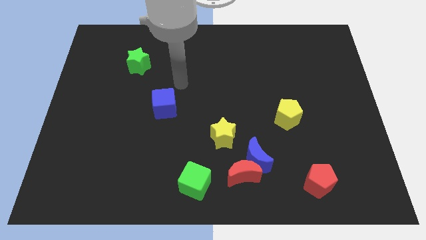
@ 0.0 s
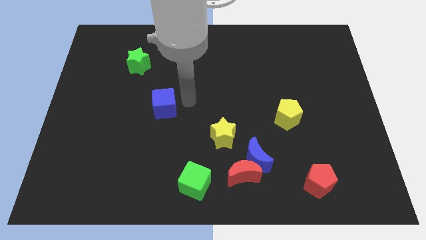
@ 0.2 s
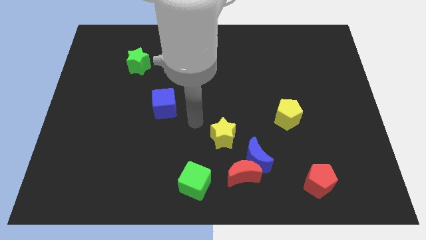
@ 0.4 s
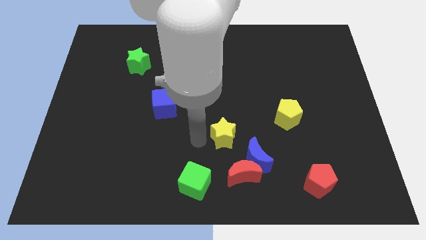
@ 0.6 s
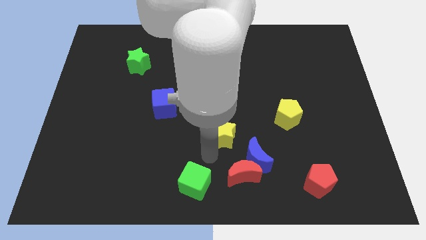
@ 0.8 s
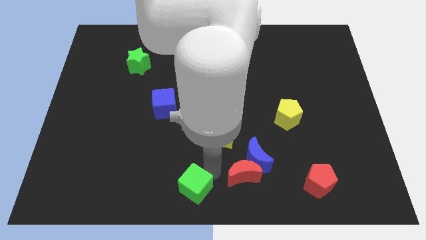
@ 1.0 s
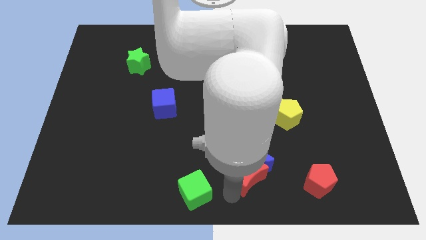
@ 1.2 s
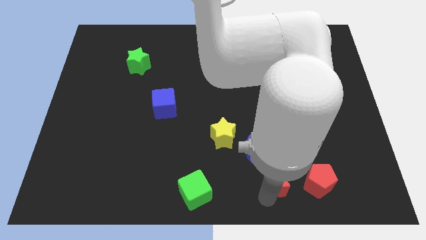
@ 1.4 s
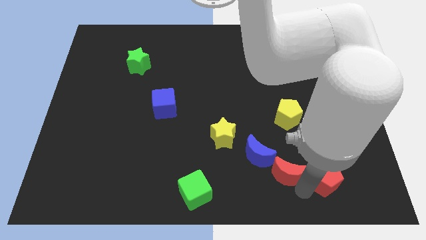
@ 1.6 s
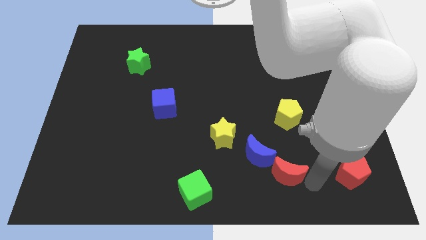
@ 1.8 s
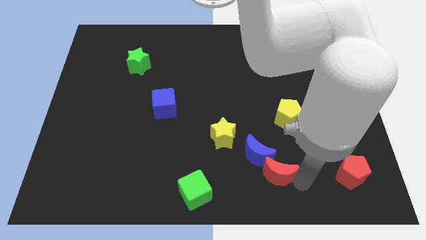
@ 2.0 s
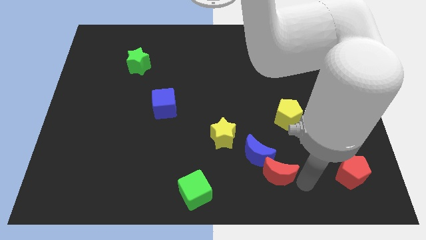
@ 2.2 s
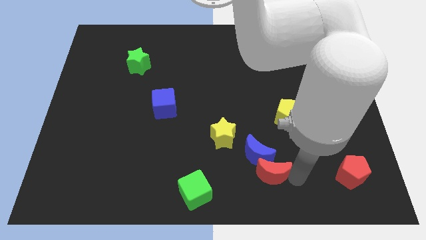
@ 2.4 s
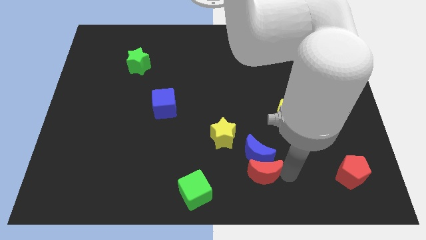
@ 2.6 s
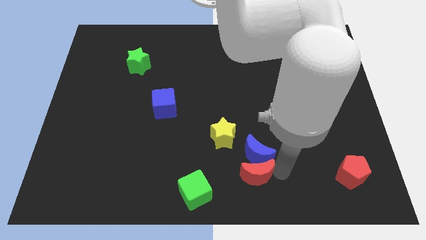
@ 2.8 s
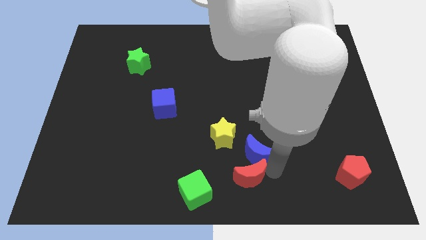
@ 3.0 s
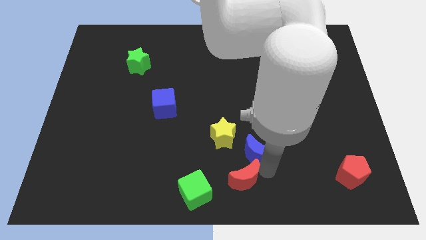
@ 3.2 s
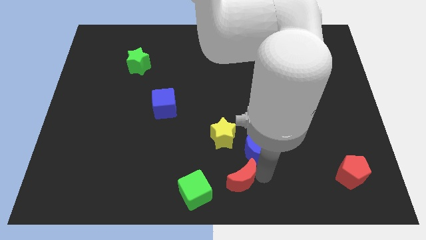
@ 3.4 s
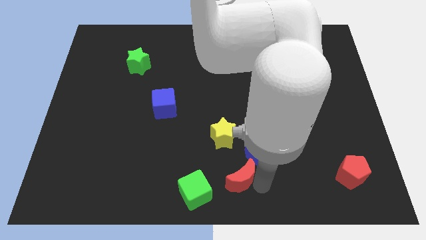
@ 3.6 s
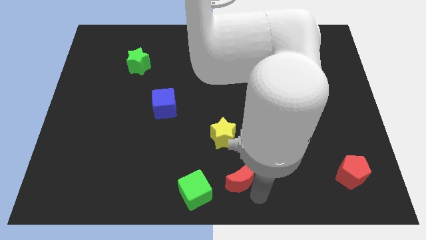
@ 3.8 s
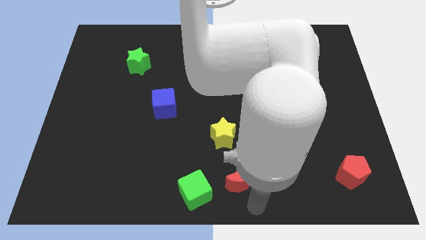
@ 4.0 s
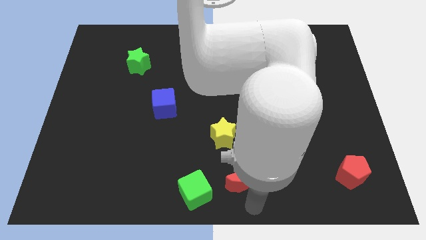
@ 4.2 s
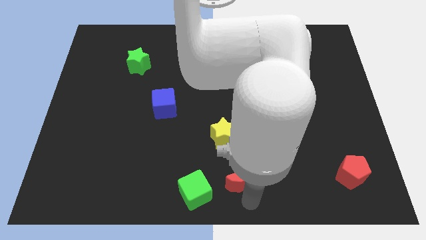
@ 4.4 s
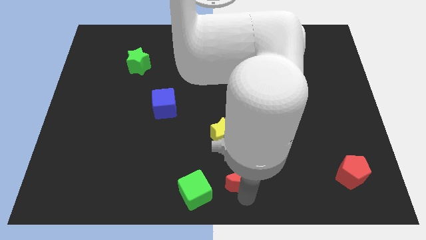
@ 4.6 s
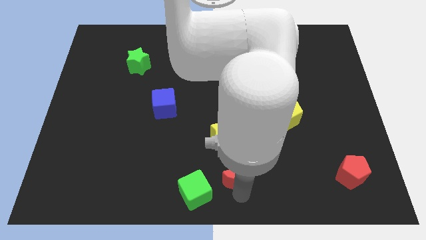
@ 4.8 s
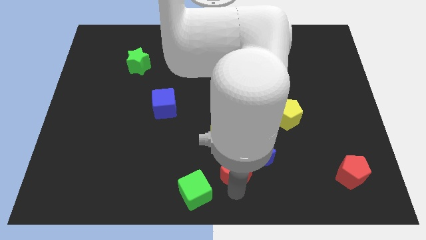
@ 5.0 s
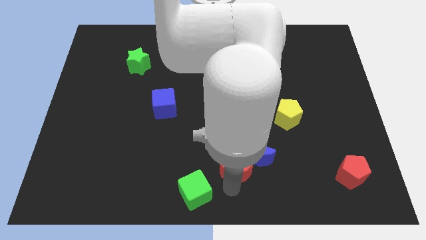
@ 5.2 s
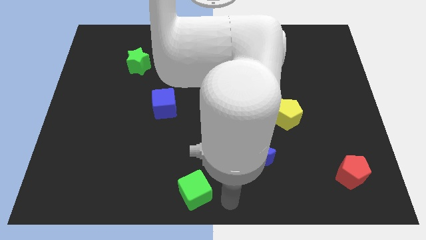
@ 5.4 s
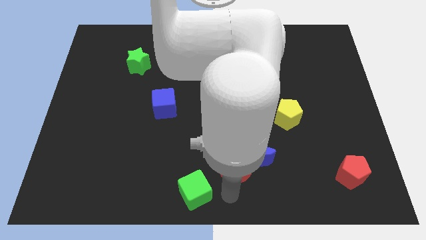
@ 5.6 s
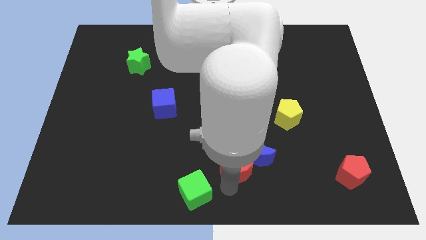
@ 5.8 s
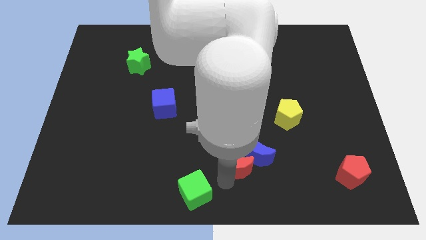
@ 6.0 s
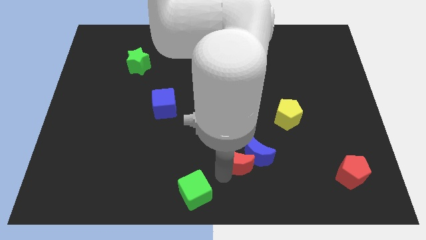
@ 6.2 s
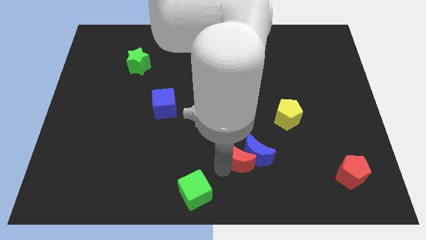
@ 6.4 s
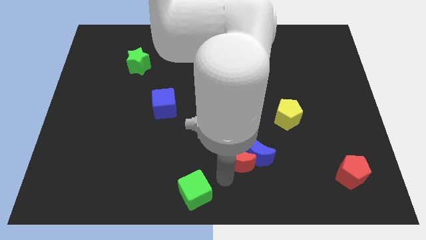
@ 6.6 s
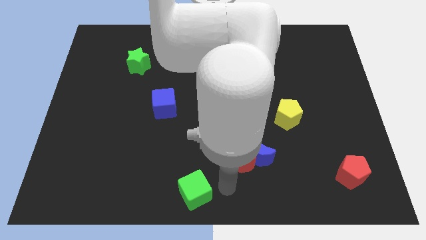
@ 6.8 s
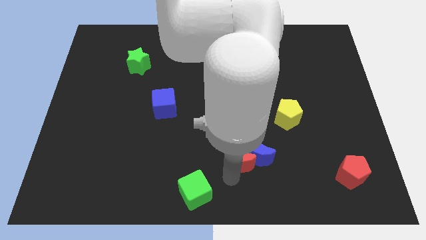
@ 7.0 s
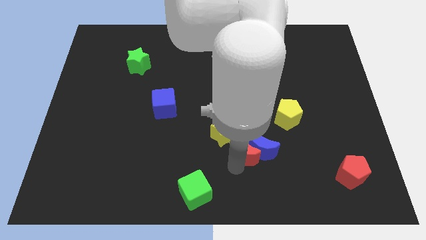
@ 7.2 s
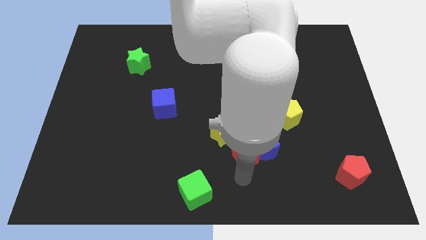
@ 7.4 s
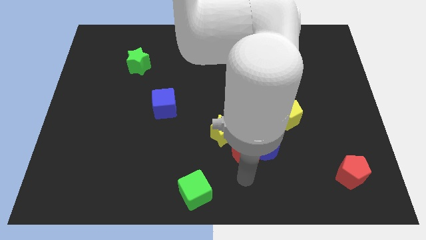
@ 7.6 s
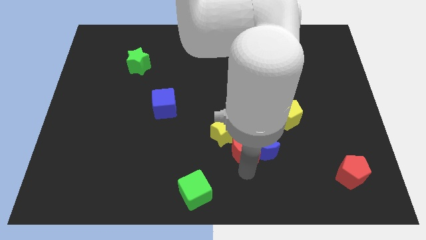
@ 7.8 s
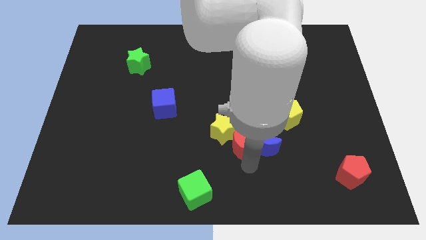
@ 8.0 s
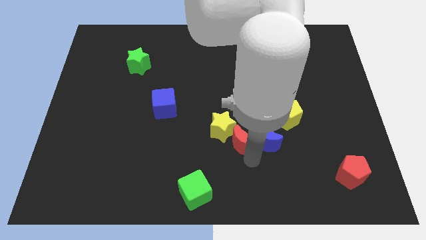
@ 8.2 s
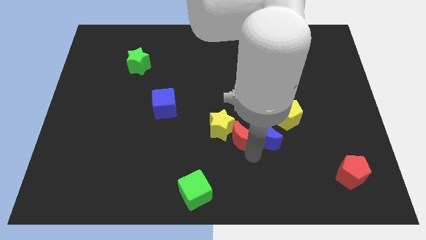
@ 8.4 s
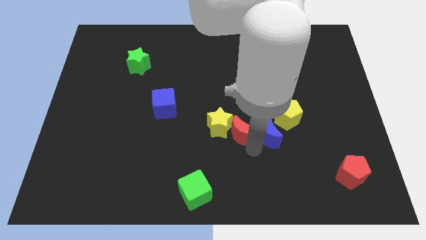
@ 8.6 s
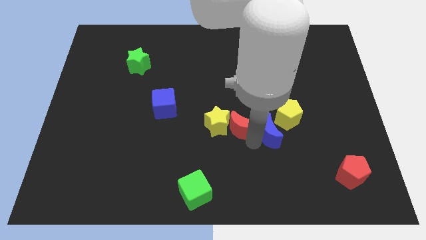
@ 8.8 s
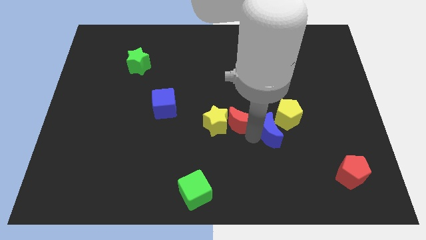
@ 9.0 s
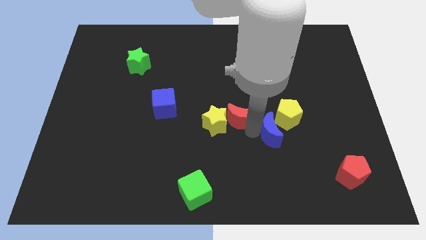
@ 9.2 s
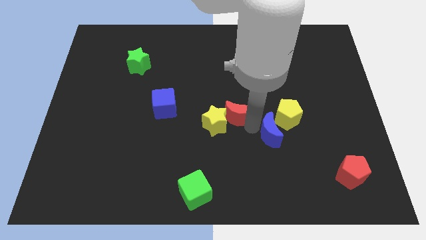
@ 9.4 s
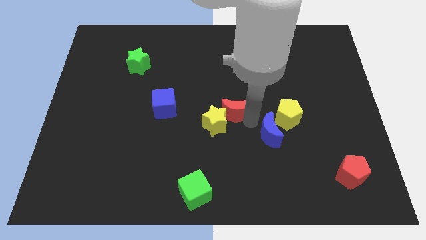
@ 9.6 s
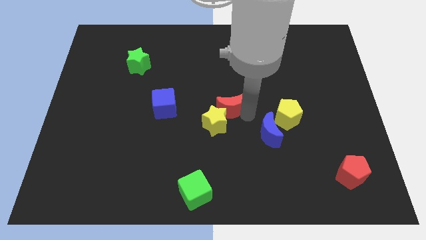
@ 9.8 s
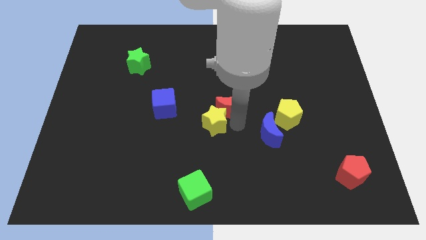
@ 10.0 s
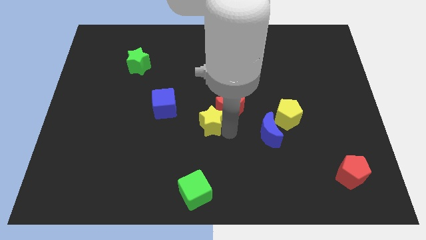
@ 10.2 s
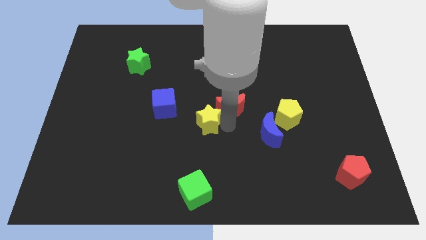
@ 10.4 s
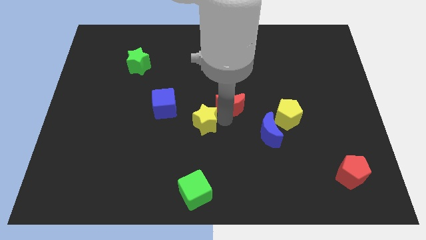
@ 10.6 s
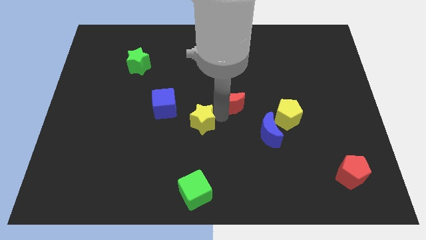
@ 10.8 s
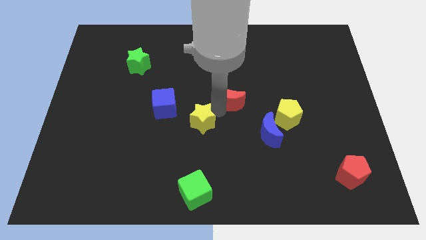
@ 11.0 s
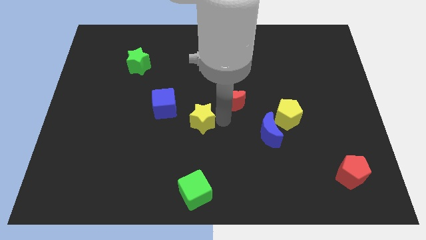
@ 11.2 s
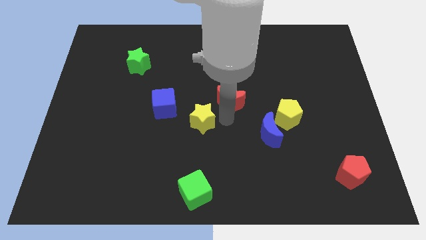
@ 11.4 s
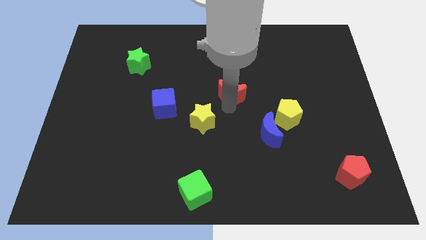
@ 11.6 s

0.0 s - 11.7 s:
move the red moon upwards

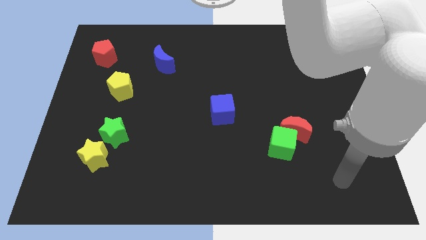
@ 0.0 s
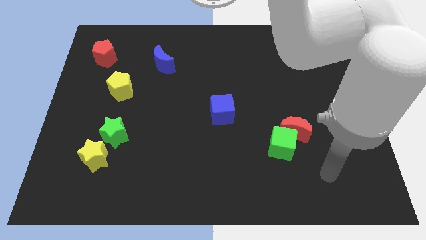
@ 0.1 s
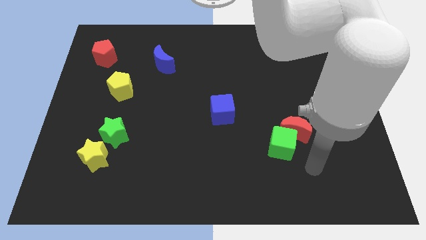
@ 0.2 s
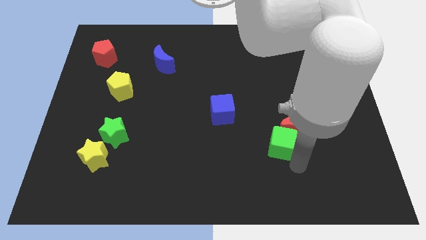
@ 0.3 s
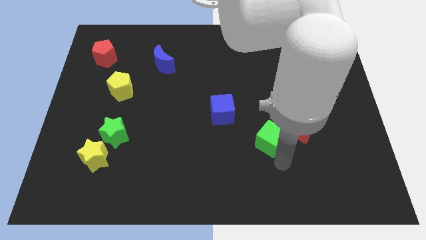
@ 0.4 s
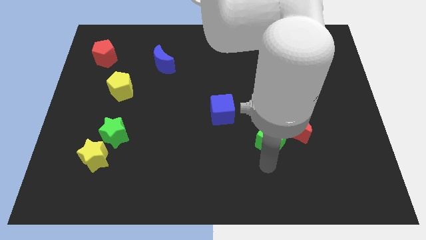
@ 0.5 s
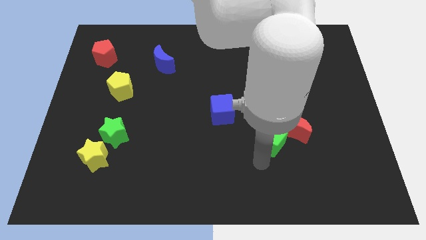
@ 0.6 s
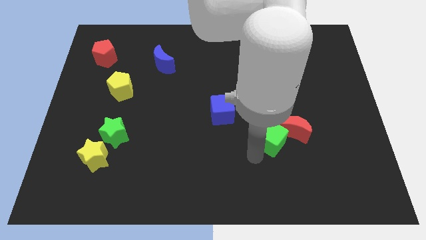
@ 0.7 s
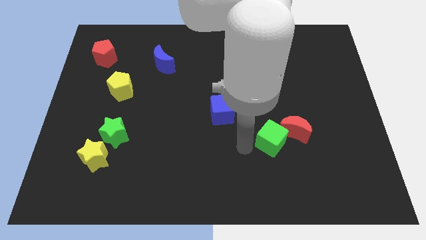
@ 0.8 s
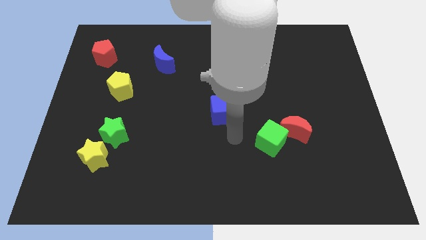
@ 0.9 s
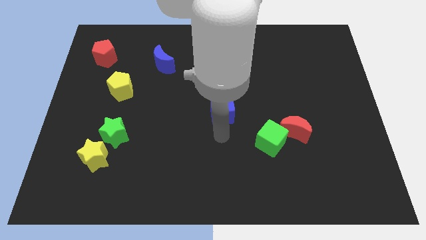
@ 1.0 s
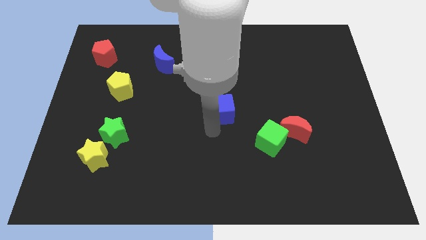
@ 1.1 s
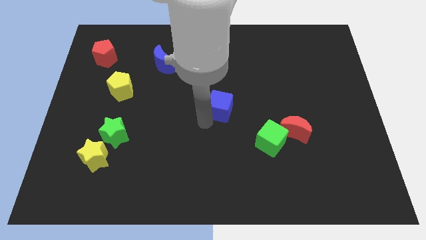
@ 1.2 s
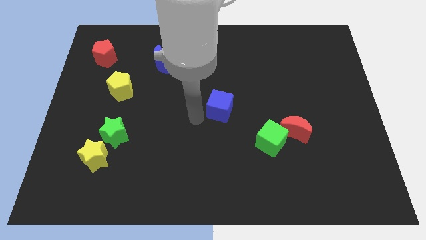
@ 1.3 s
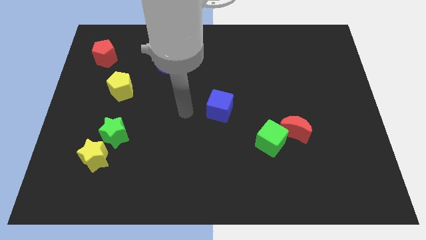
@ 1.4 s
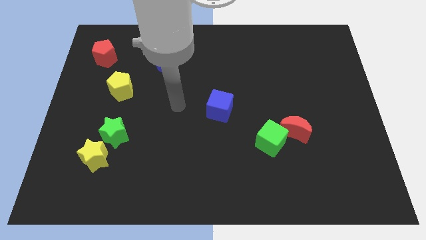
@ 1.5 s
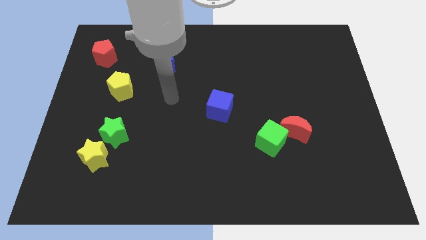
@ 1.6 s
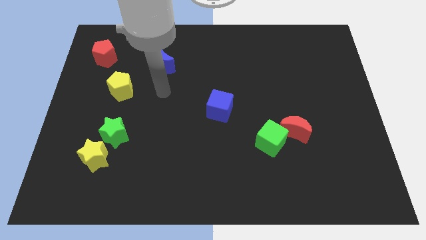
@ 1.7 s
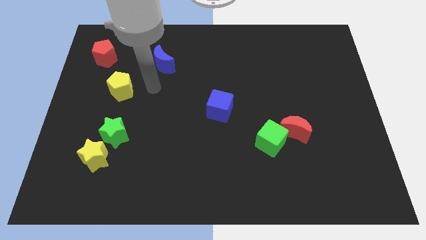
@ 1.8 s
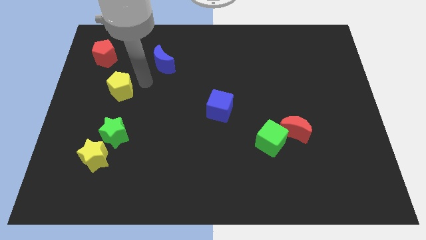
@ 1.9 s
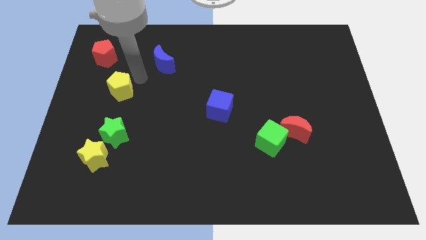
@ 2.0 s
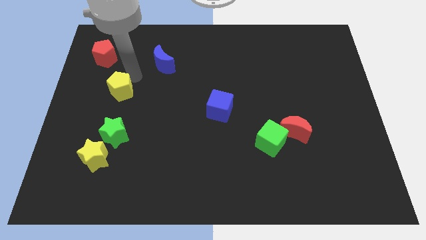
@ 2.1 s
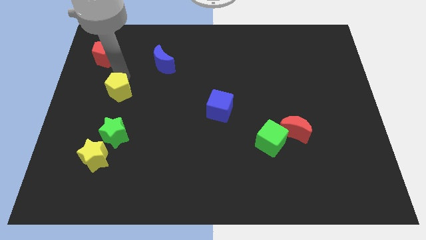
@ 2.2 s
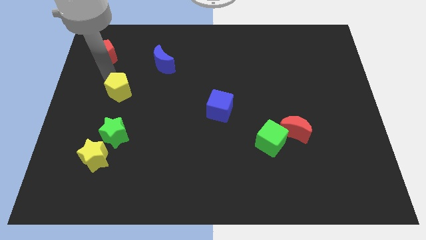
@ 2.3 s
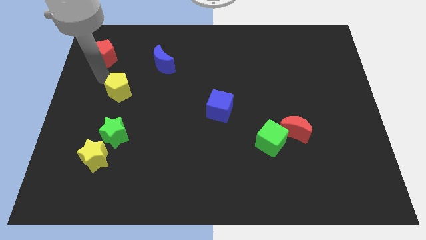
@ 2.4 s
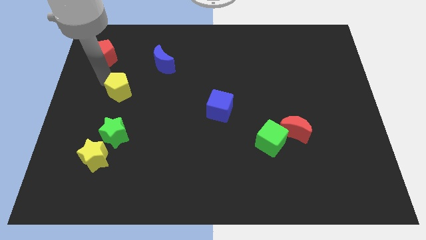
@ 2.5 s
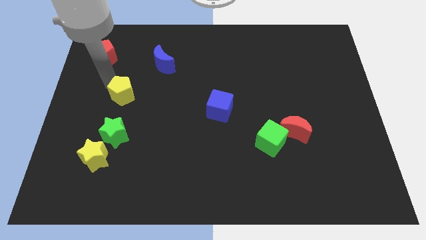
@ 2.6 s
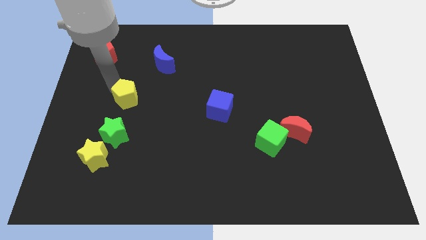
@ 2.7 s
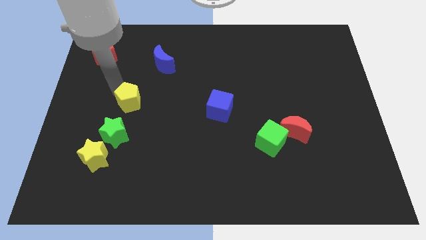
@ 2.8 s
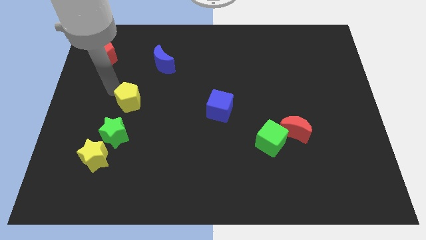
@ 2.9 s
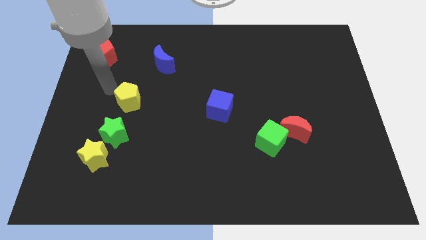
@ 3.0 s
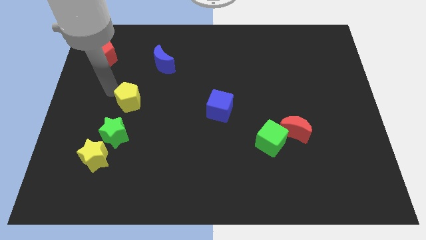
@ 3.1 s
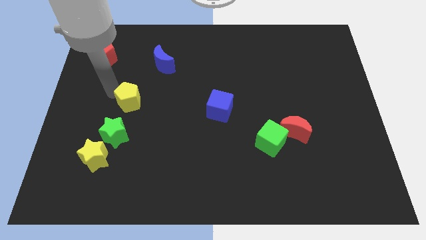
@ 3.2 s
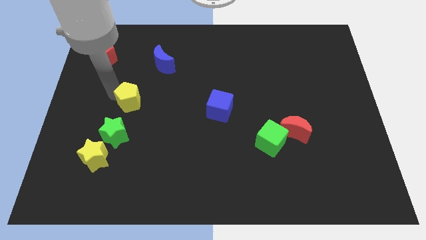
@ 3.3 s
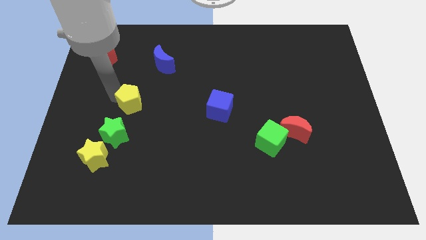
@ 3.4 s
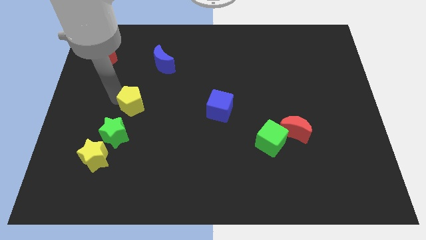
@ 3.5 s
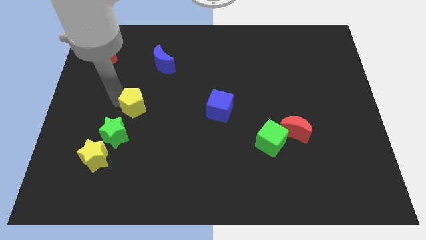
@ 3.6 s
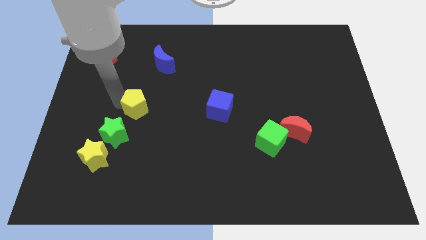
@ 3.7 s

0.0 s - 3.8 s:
push the yellow pentagon a little down and to the right diagonally
